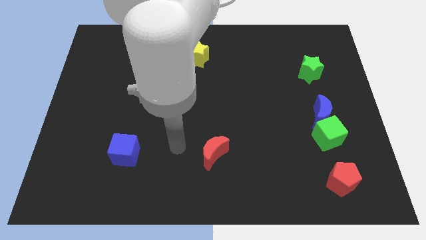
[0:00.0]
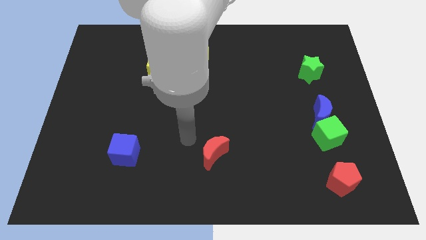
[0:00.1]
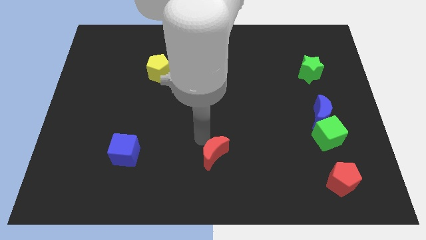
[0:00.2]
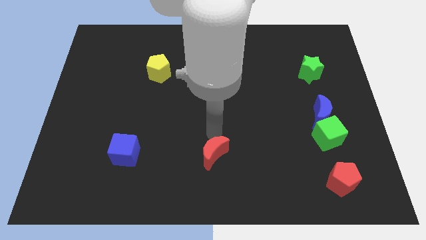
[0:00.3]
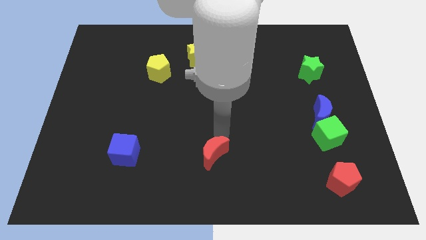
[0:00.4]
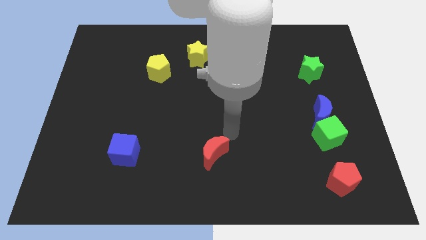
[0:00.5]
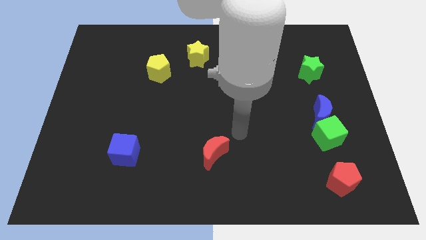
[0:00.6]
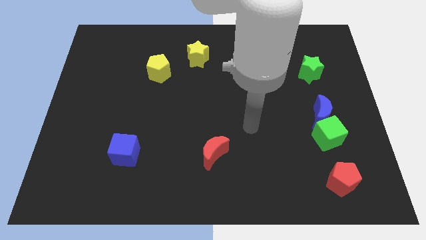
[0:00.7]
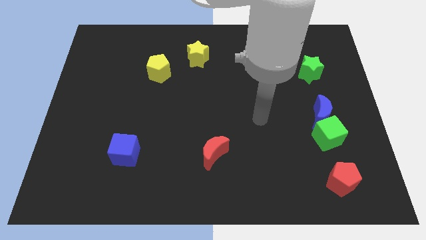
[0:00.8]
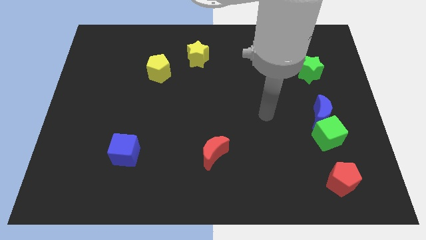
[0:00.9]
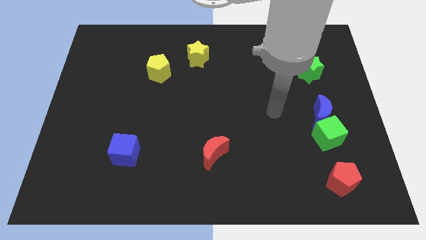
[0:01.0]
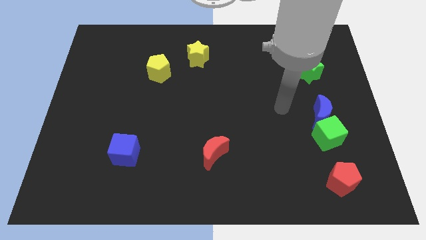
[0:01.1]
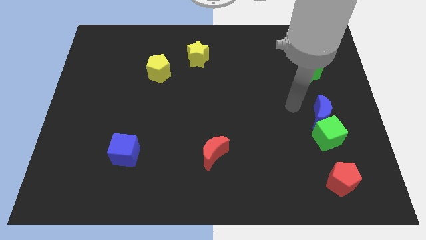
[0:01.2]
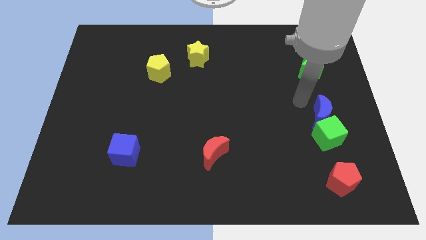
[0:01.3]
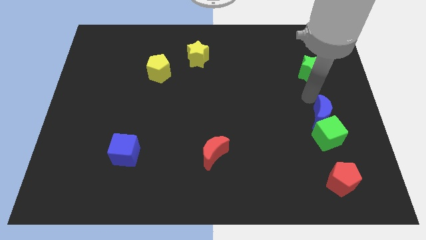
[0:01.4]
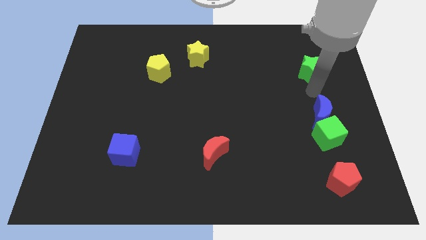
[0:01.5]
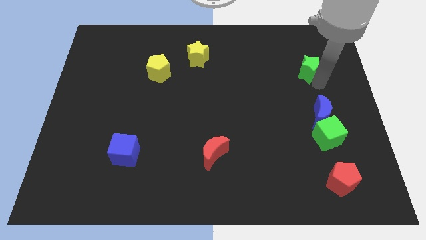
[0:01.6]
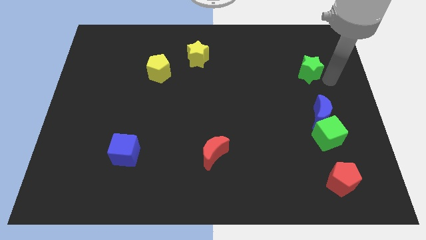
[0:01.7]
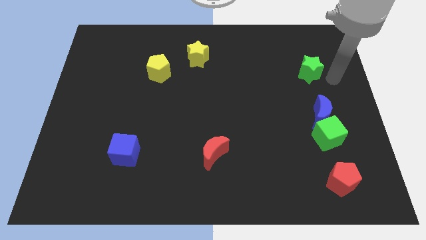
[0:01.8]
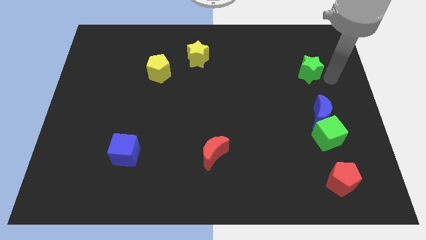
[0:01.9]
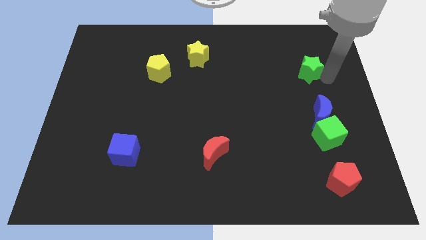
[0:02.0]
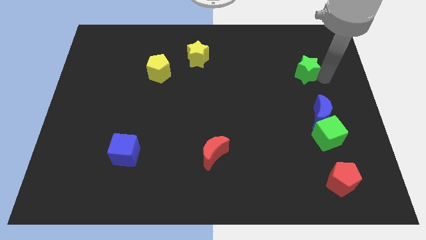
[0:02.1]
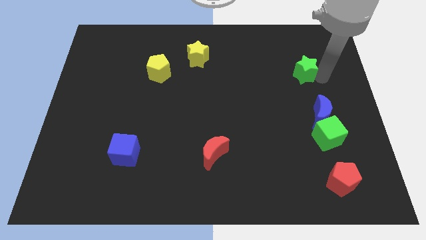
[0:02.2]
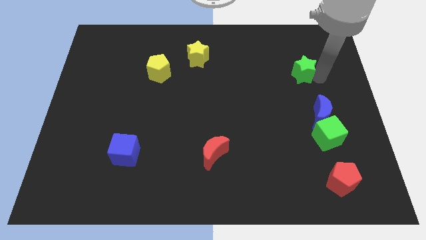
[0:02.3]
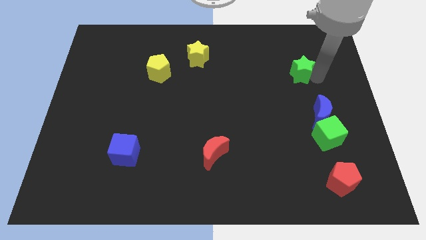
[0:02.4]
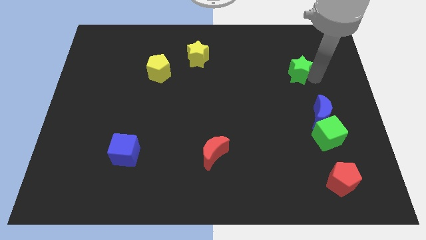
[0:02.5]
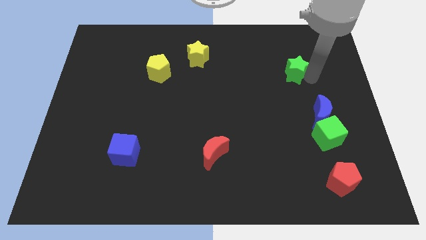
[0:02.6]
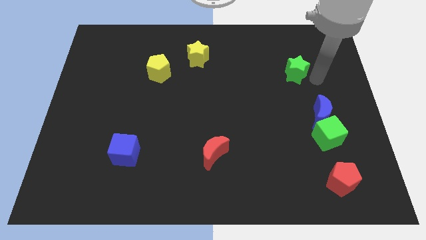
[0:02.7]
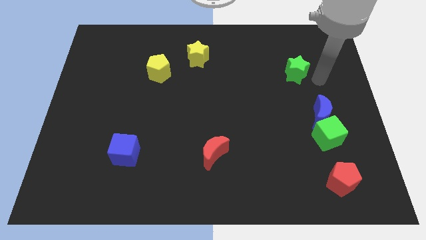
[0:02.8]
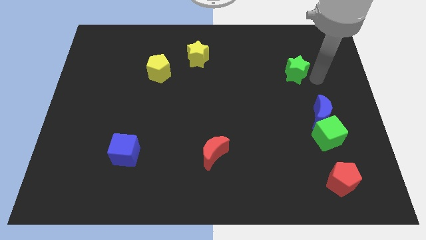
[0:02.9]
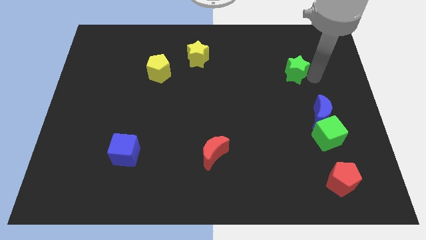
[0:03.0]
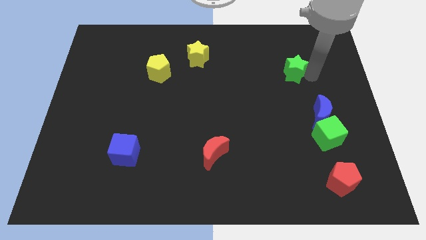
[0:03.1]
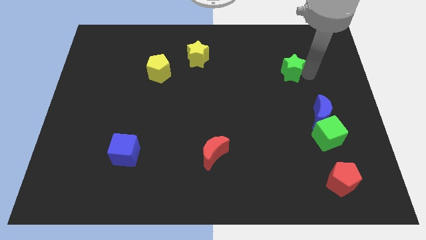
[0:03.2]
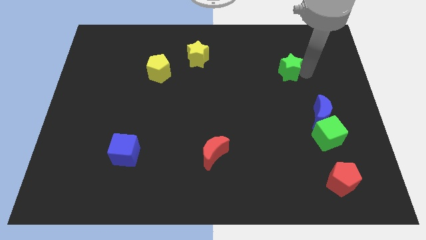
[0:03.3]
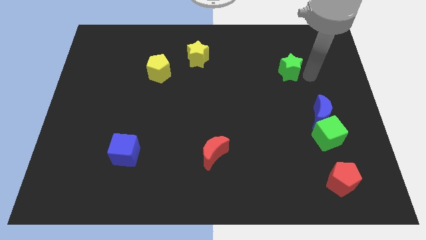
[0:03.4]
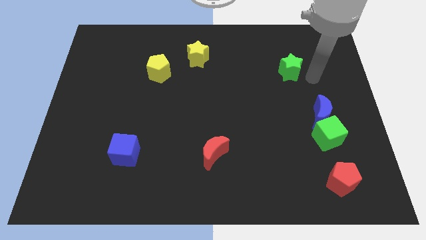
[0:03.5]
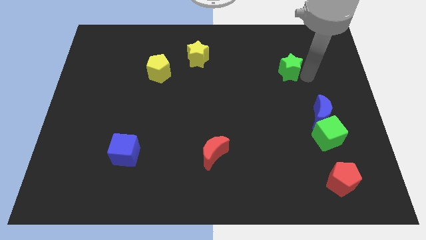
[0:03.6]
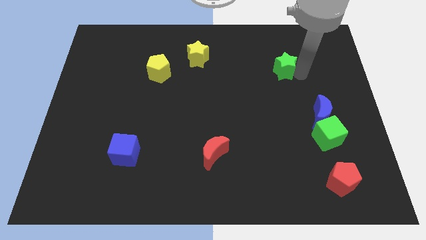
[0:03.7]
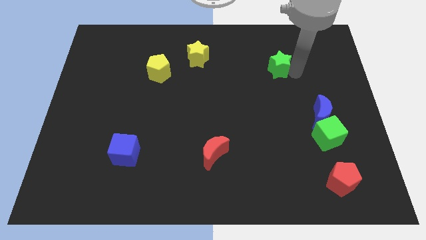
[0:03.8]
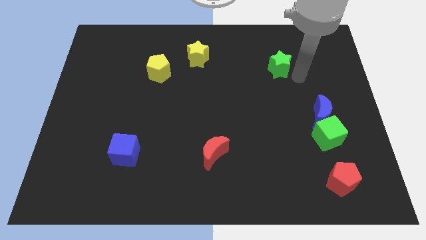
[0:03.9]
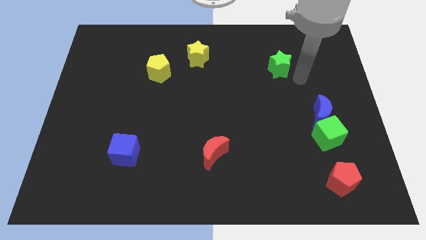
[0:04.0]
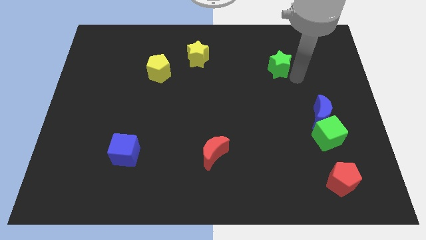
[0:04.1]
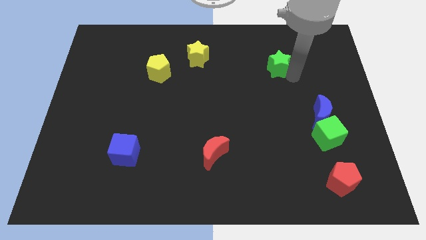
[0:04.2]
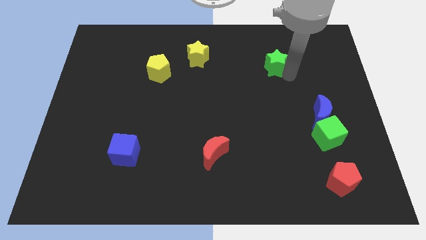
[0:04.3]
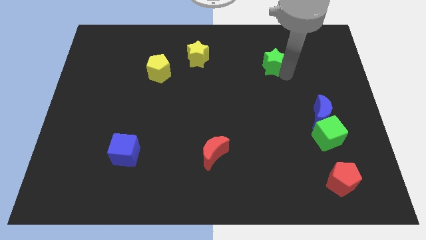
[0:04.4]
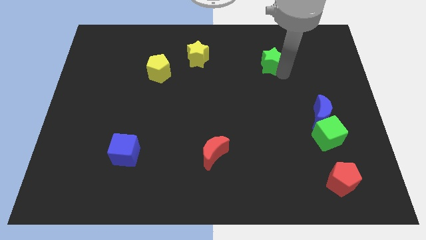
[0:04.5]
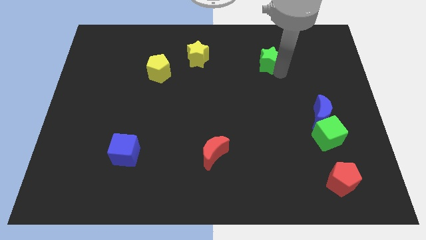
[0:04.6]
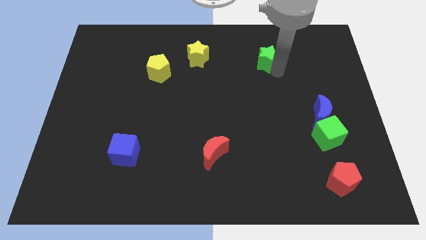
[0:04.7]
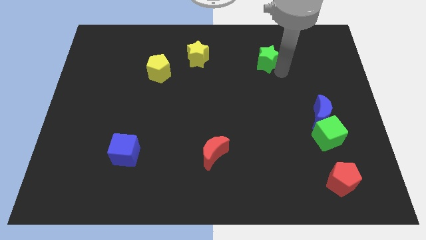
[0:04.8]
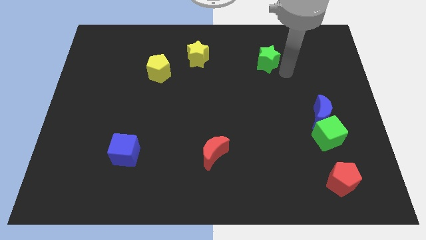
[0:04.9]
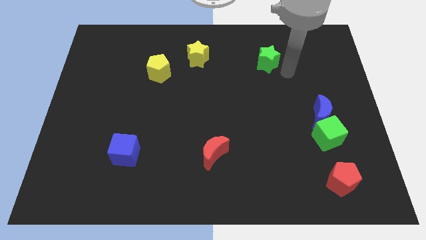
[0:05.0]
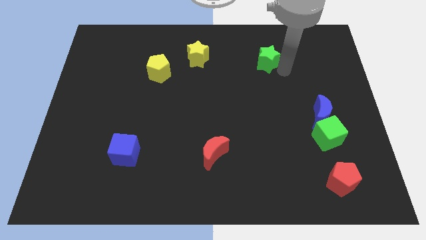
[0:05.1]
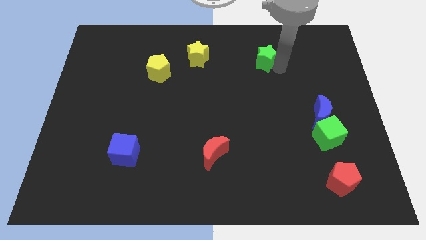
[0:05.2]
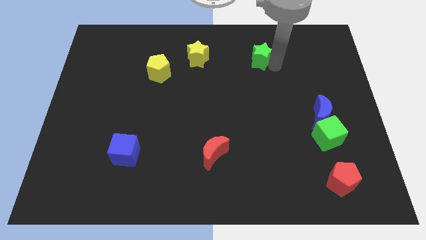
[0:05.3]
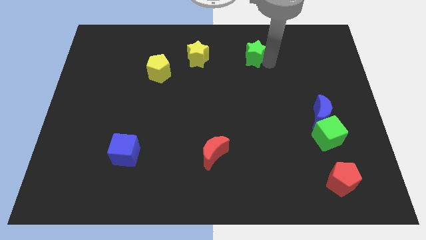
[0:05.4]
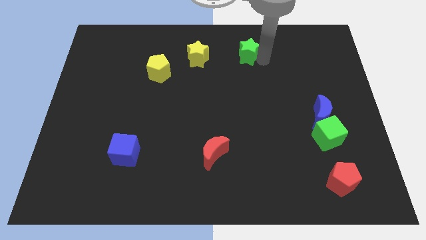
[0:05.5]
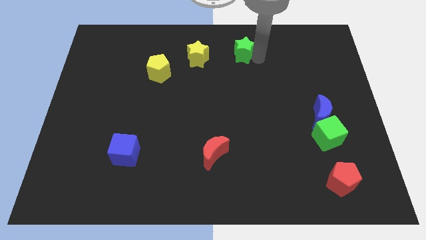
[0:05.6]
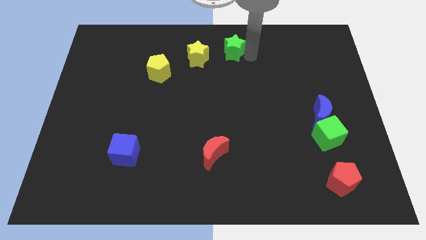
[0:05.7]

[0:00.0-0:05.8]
move the green star to the top

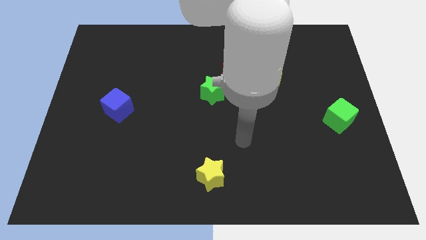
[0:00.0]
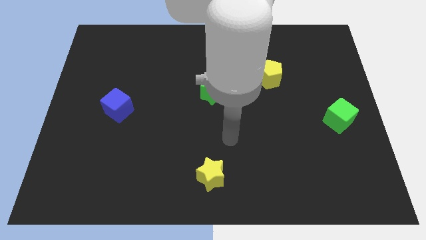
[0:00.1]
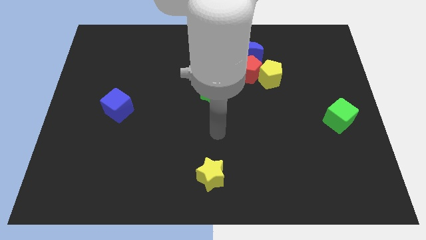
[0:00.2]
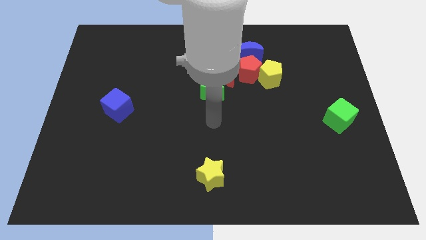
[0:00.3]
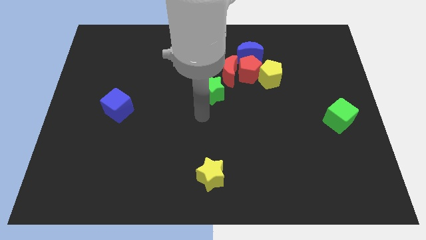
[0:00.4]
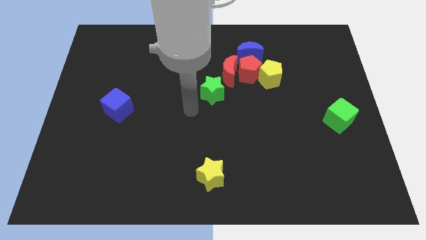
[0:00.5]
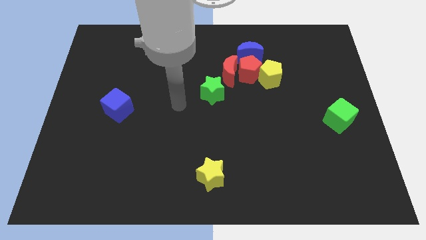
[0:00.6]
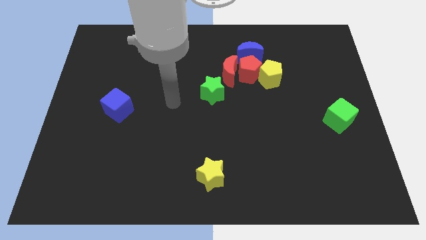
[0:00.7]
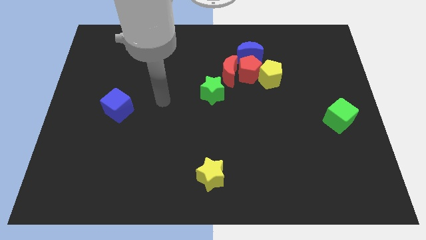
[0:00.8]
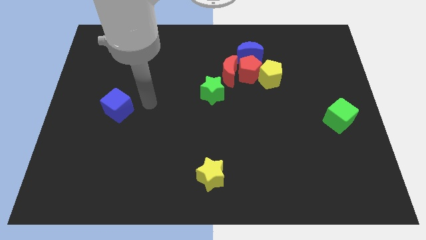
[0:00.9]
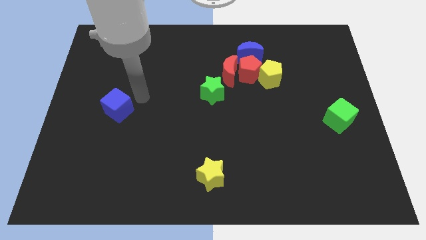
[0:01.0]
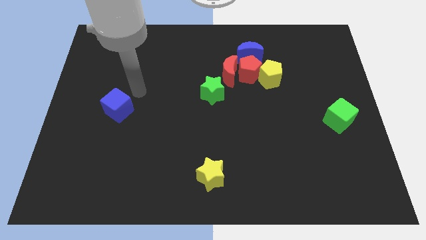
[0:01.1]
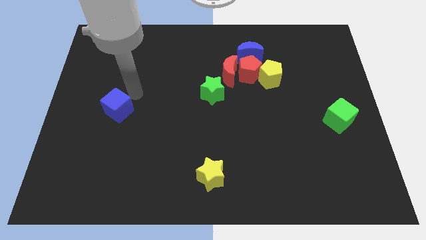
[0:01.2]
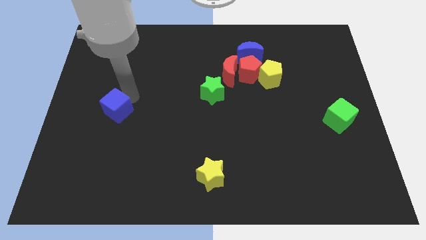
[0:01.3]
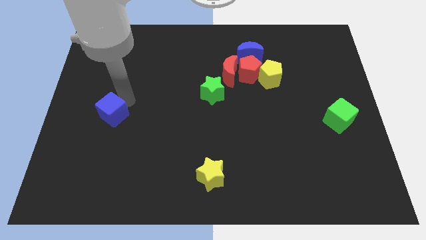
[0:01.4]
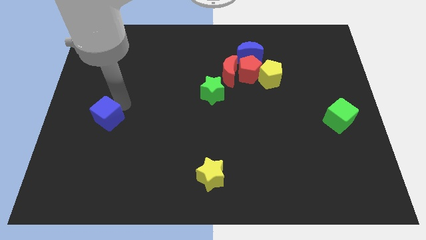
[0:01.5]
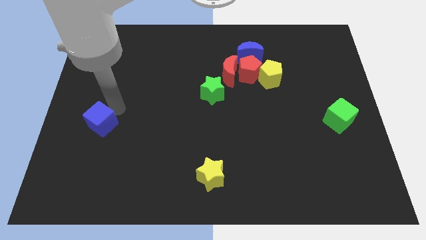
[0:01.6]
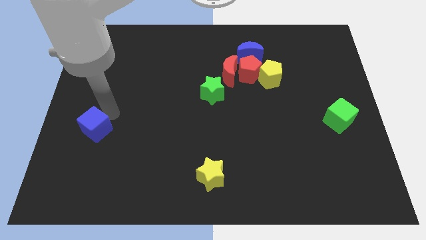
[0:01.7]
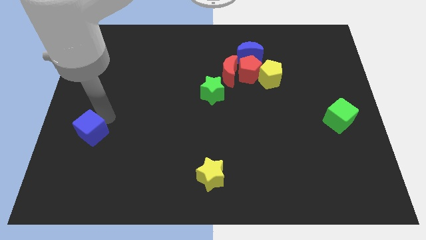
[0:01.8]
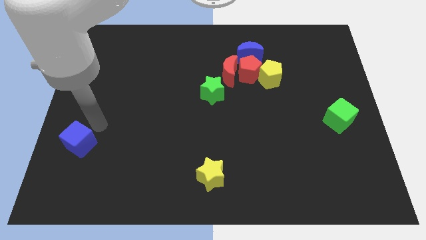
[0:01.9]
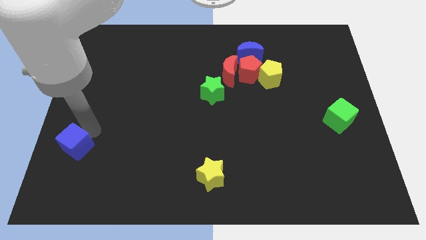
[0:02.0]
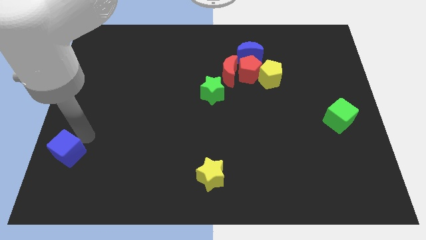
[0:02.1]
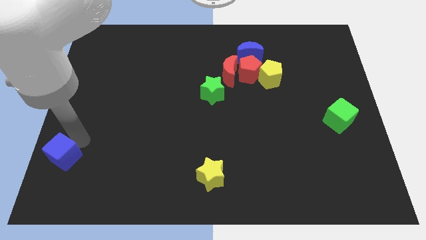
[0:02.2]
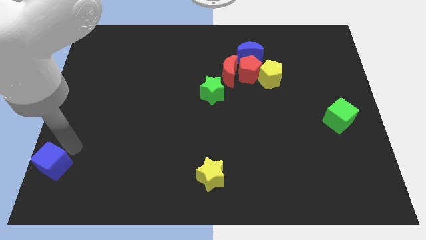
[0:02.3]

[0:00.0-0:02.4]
slide the blue cube to the lower left corner
